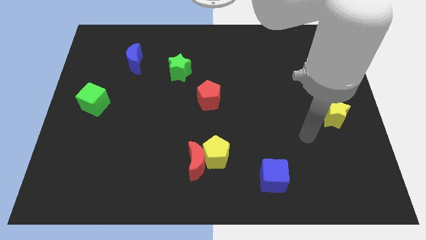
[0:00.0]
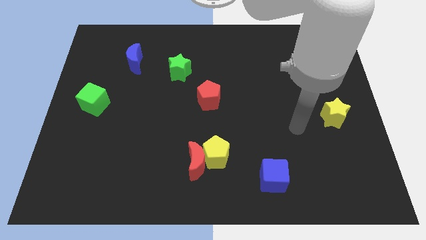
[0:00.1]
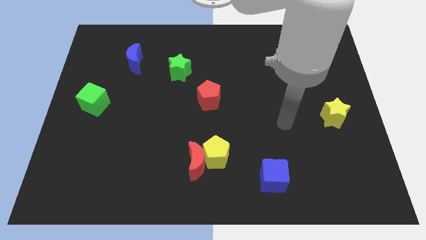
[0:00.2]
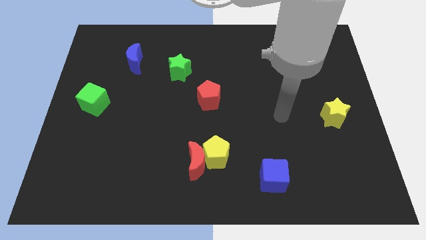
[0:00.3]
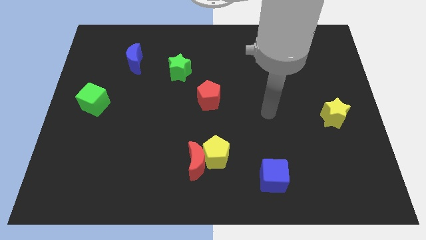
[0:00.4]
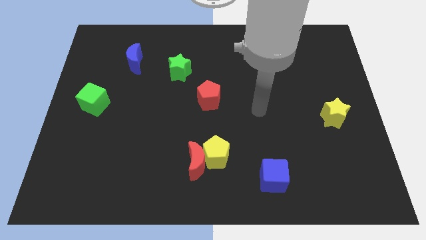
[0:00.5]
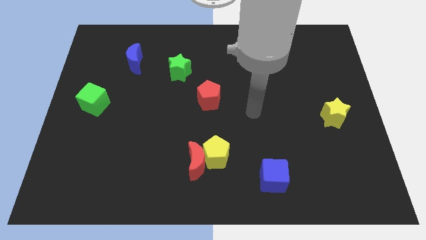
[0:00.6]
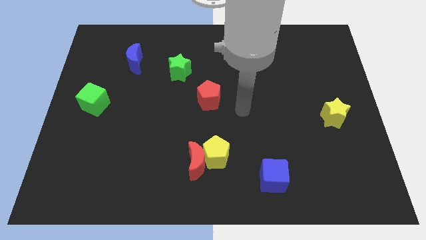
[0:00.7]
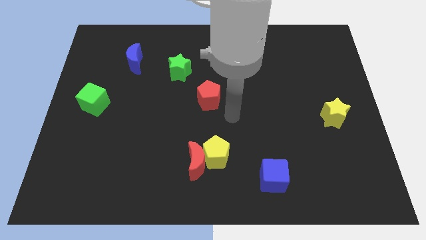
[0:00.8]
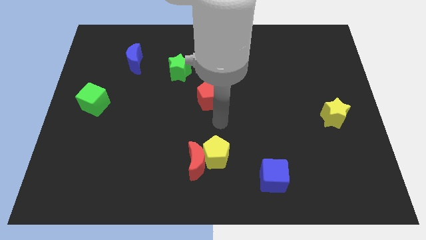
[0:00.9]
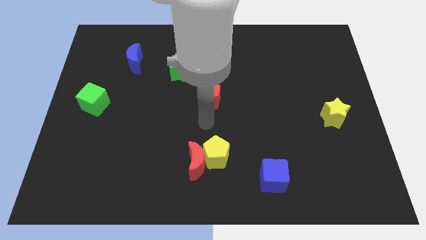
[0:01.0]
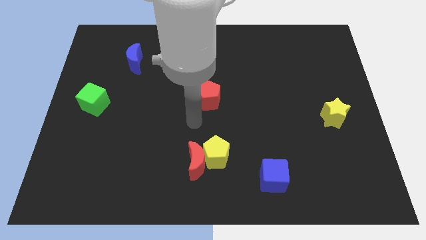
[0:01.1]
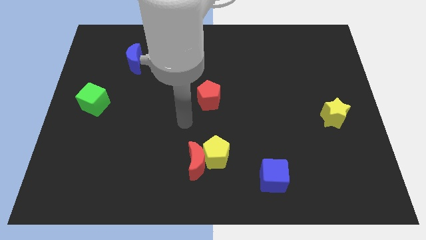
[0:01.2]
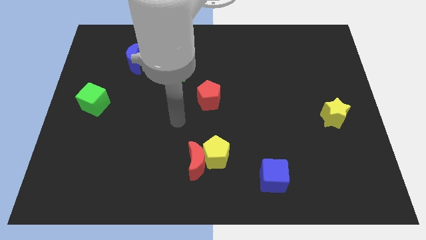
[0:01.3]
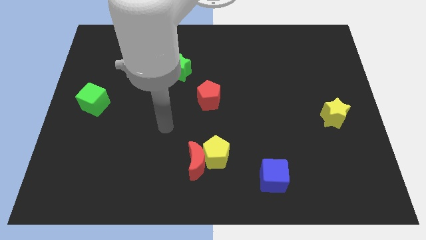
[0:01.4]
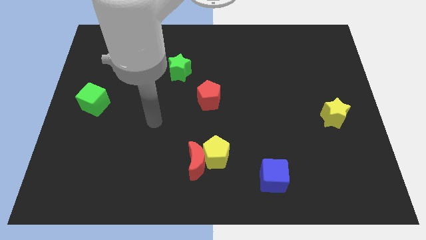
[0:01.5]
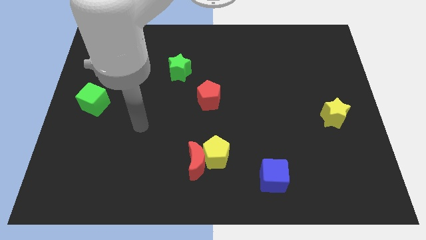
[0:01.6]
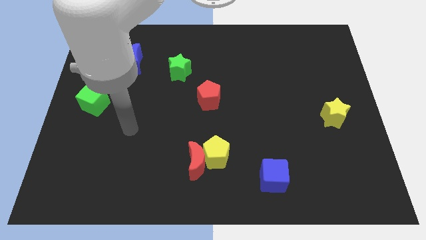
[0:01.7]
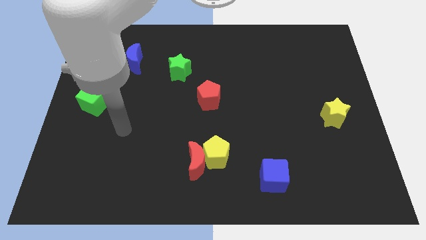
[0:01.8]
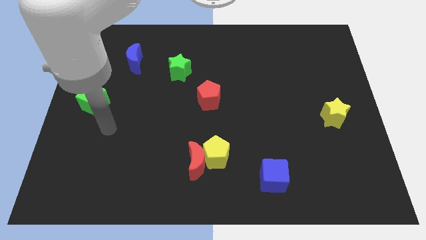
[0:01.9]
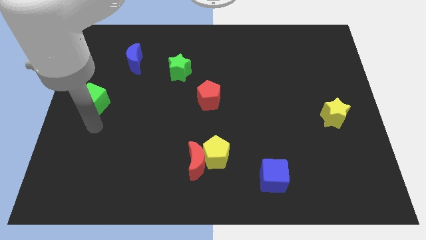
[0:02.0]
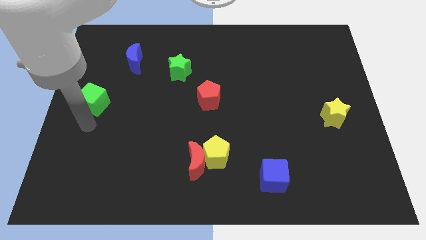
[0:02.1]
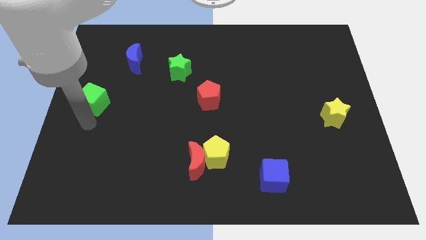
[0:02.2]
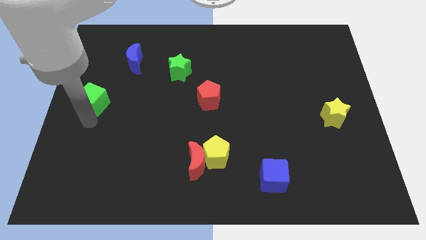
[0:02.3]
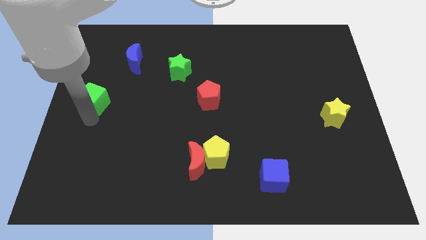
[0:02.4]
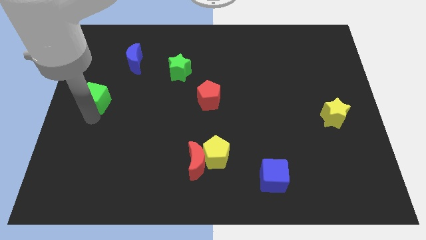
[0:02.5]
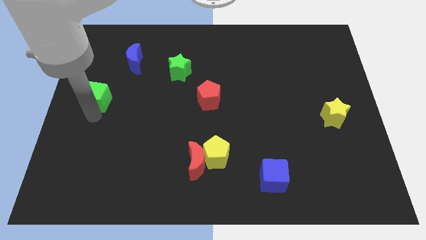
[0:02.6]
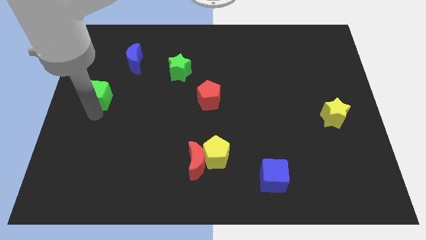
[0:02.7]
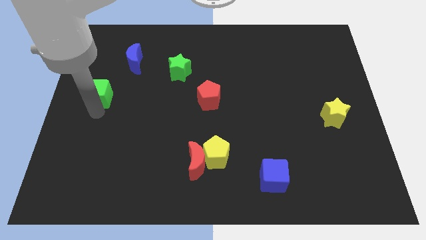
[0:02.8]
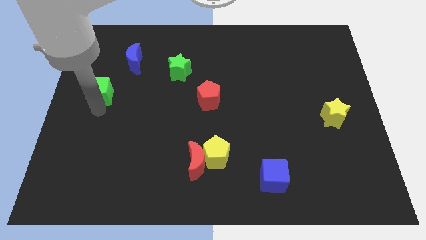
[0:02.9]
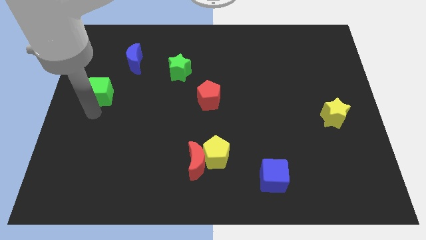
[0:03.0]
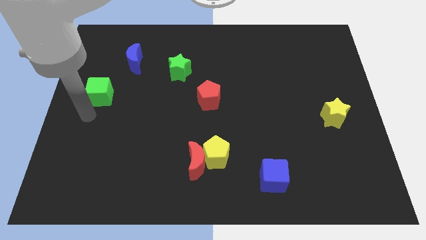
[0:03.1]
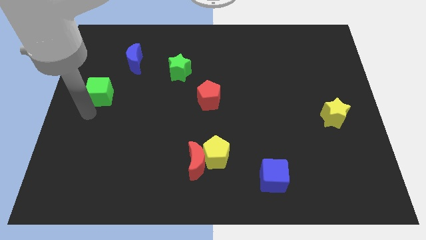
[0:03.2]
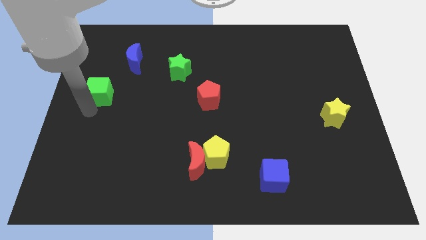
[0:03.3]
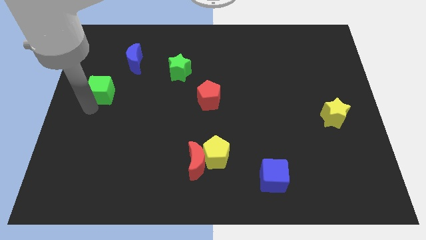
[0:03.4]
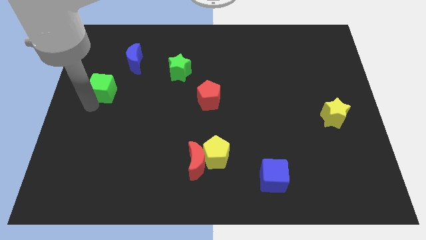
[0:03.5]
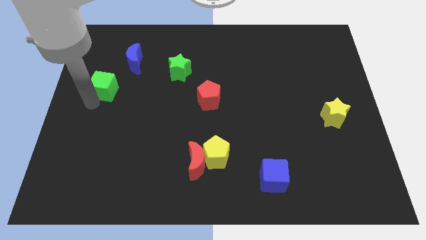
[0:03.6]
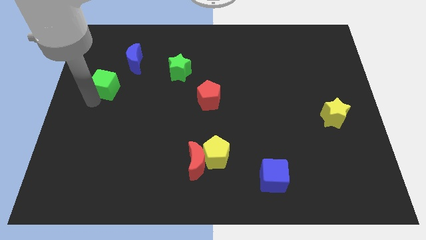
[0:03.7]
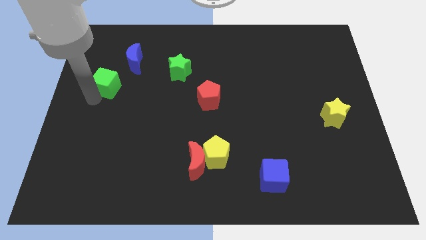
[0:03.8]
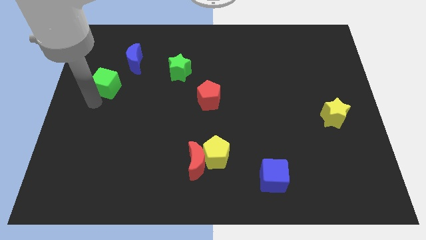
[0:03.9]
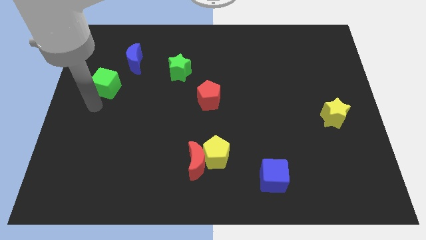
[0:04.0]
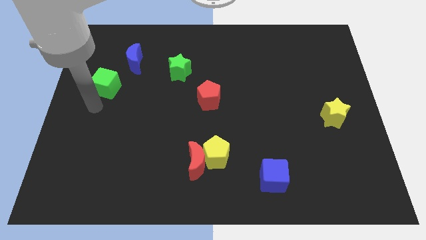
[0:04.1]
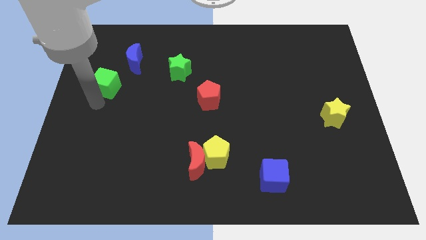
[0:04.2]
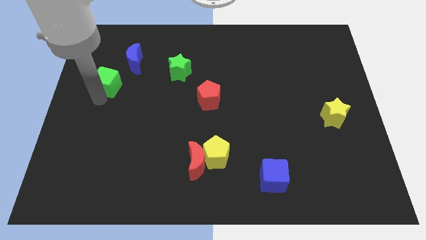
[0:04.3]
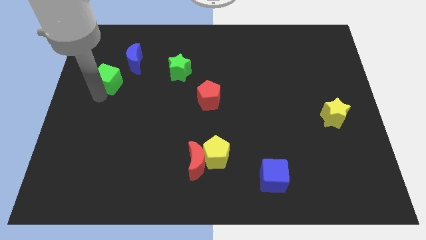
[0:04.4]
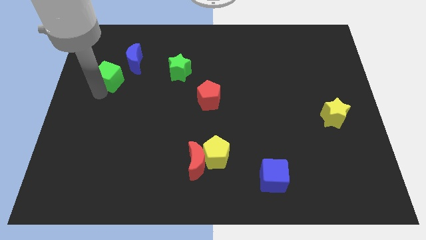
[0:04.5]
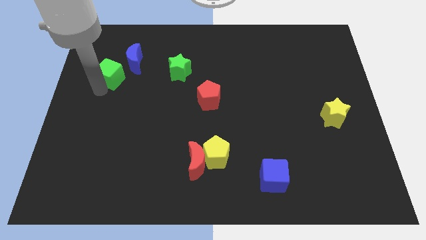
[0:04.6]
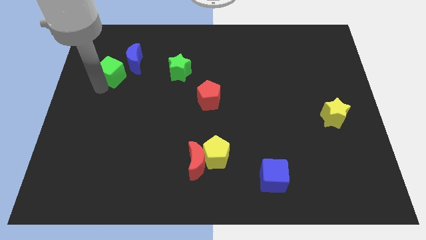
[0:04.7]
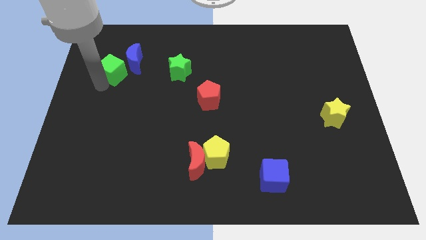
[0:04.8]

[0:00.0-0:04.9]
put the green cube next to the blue moon
